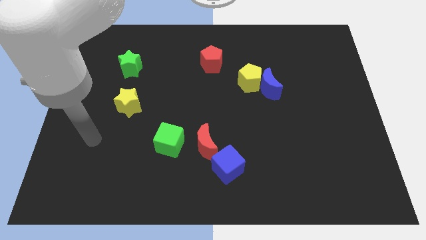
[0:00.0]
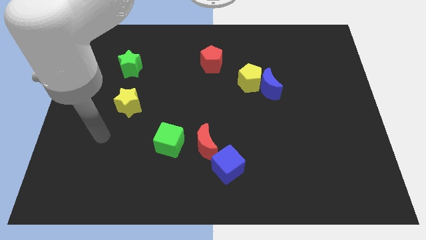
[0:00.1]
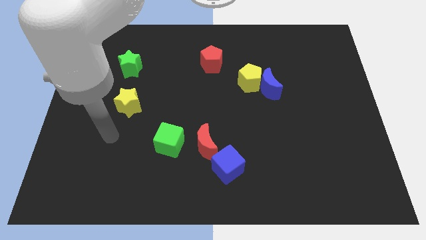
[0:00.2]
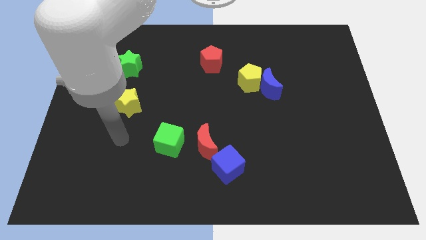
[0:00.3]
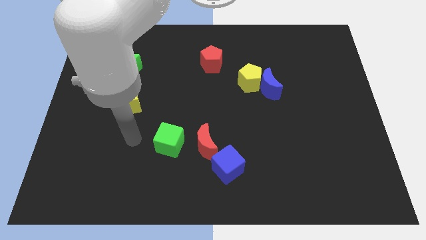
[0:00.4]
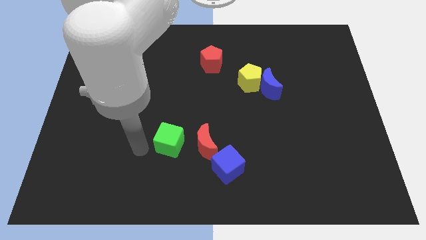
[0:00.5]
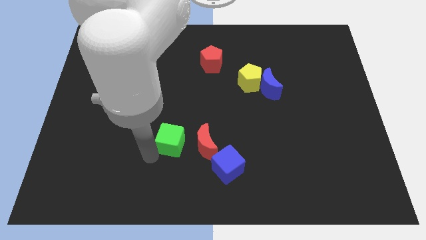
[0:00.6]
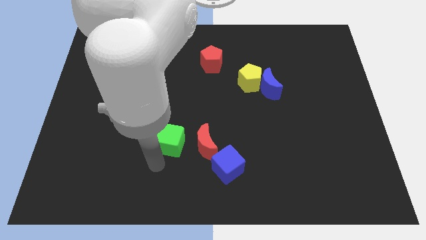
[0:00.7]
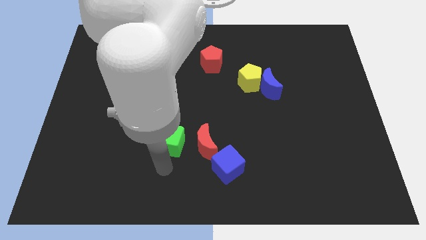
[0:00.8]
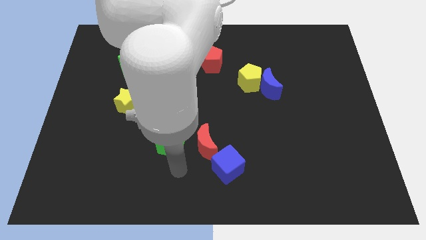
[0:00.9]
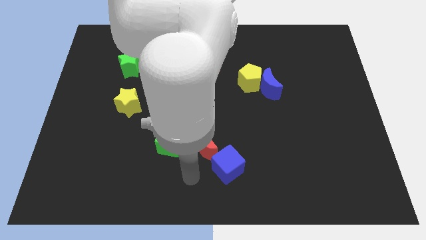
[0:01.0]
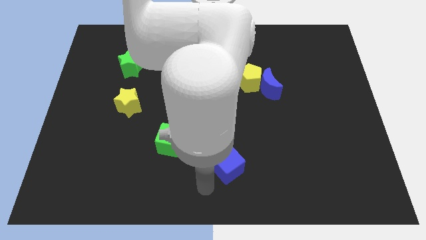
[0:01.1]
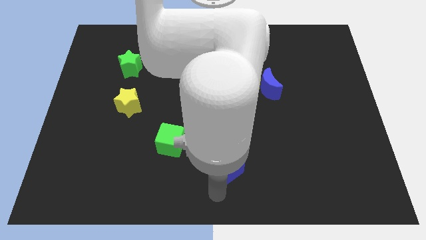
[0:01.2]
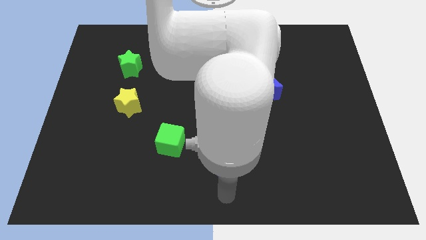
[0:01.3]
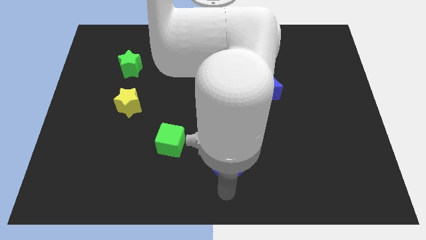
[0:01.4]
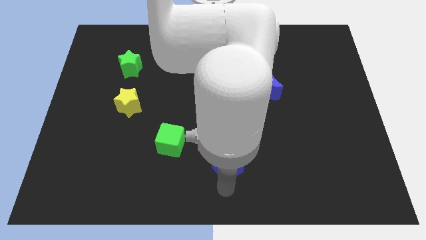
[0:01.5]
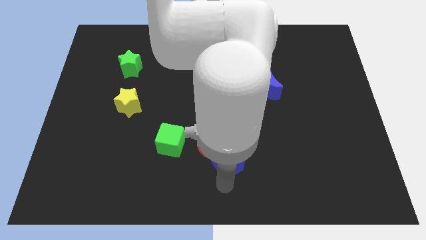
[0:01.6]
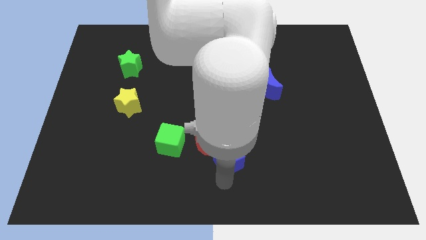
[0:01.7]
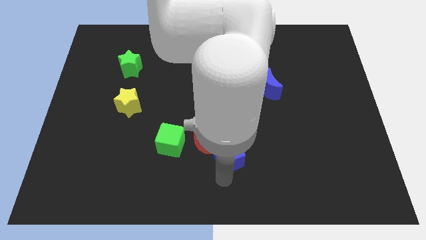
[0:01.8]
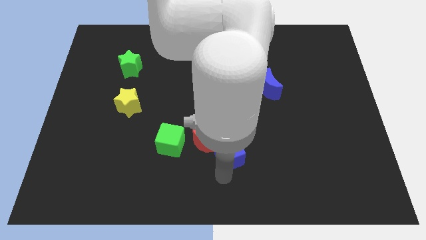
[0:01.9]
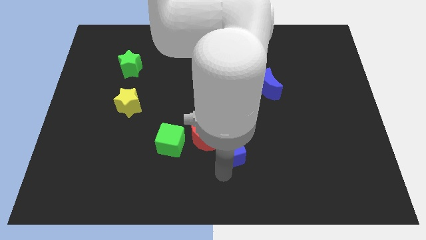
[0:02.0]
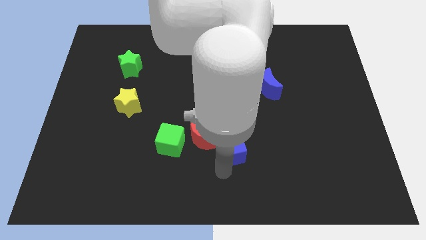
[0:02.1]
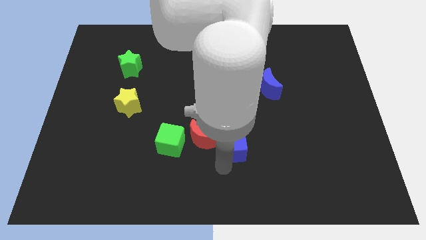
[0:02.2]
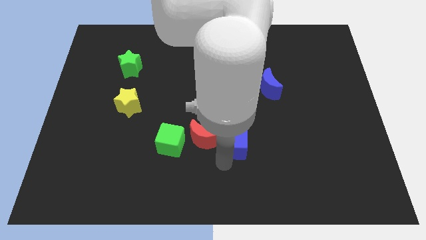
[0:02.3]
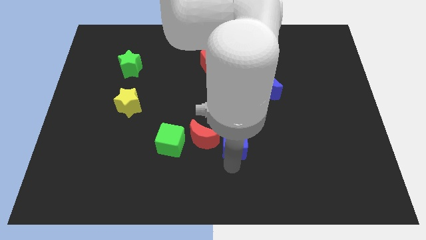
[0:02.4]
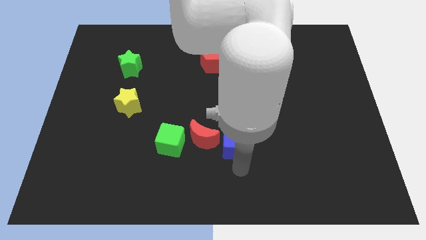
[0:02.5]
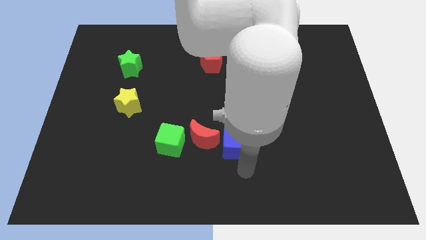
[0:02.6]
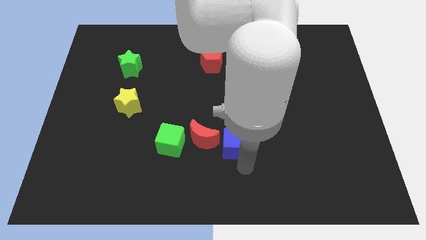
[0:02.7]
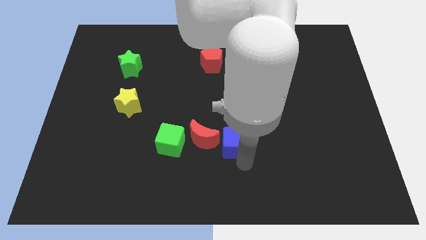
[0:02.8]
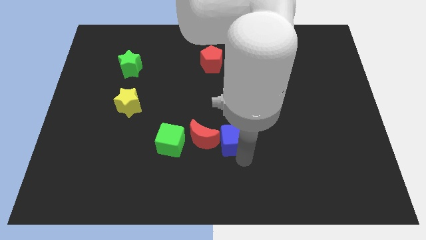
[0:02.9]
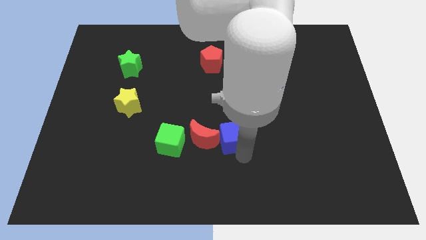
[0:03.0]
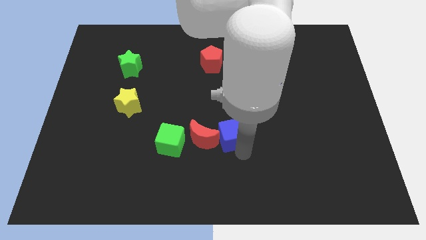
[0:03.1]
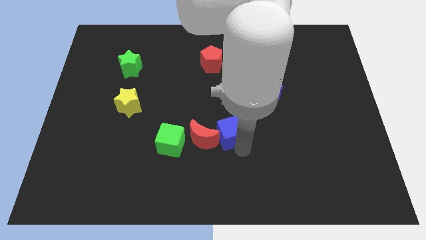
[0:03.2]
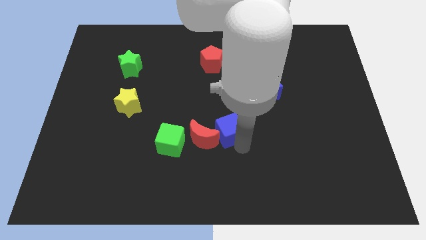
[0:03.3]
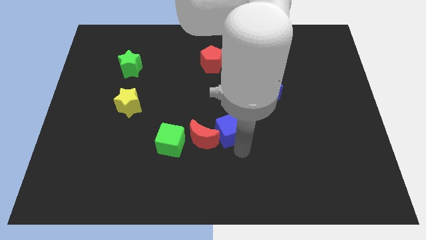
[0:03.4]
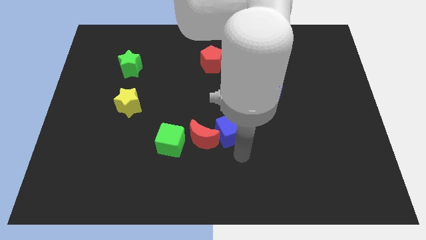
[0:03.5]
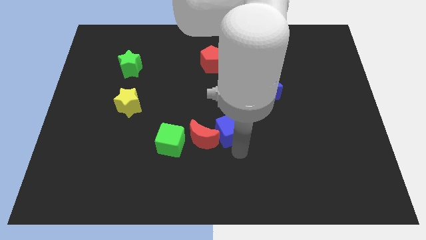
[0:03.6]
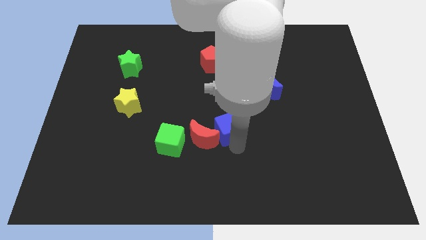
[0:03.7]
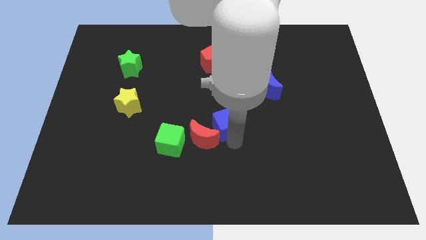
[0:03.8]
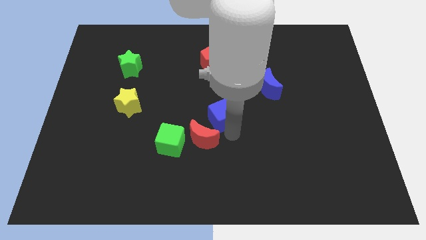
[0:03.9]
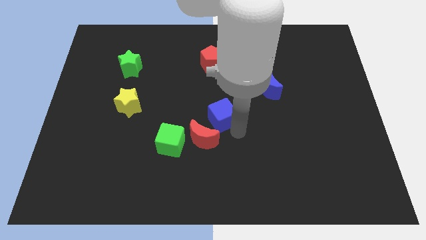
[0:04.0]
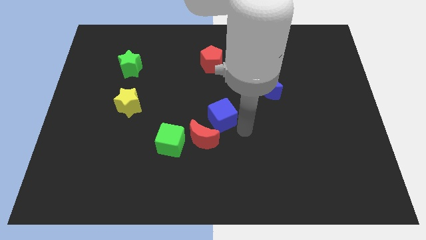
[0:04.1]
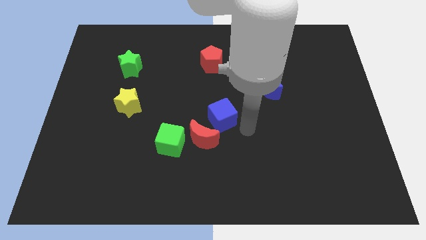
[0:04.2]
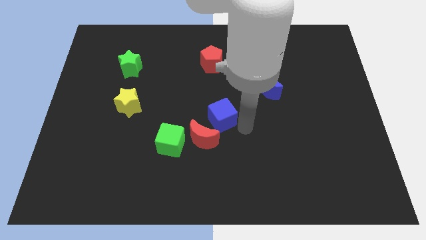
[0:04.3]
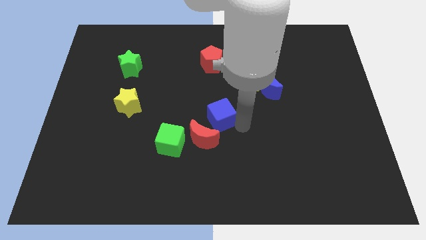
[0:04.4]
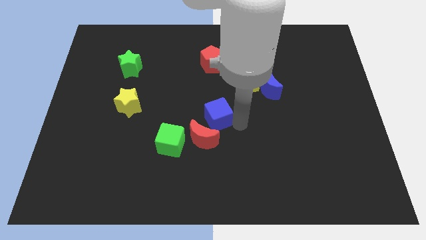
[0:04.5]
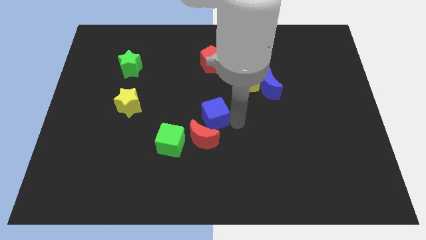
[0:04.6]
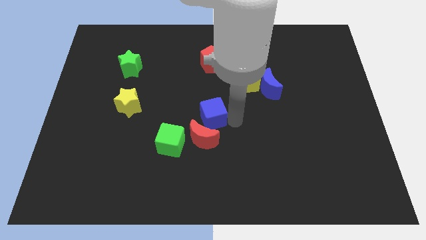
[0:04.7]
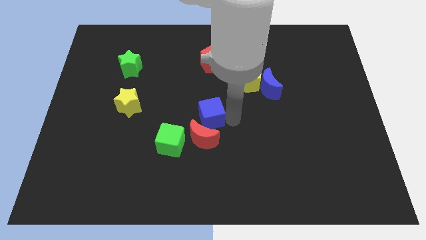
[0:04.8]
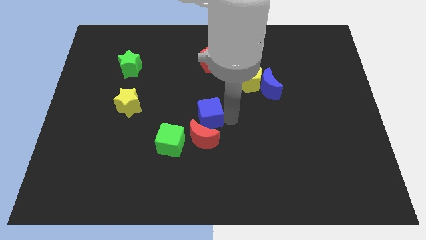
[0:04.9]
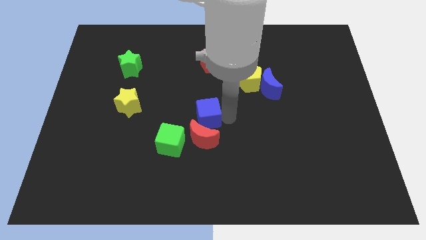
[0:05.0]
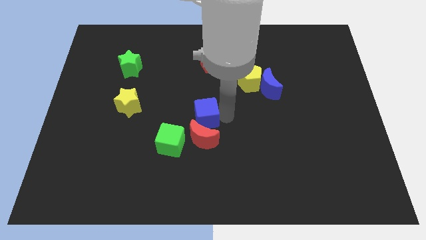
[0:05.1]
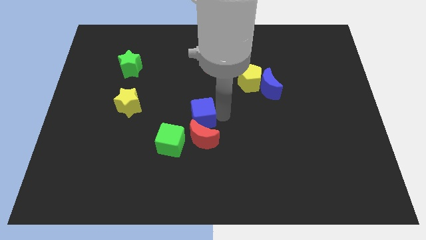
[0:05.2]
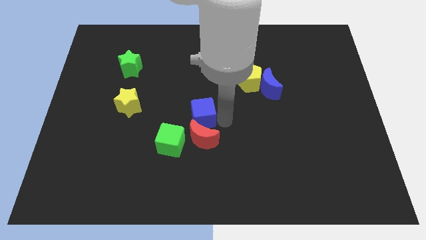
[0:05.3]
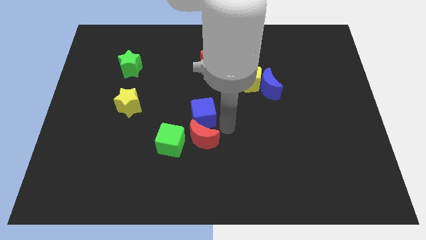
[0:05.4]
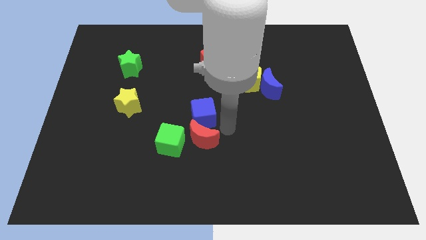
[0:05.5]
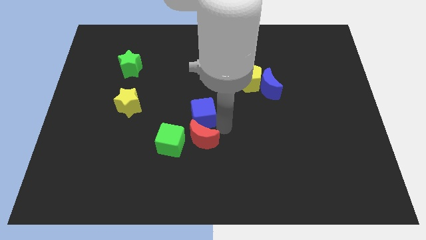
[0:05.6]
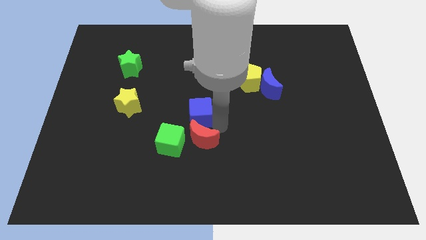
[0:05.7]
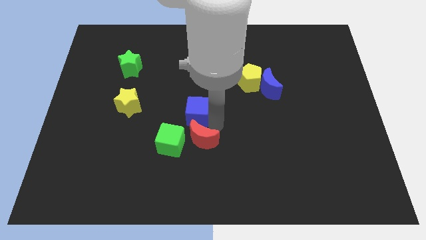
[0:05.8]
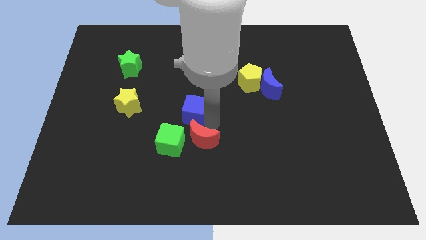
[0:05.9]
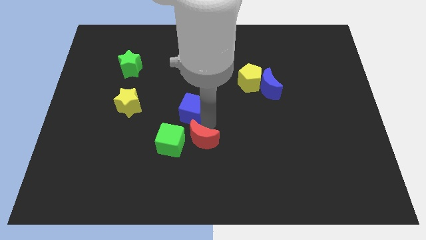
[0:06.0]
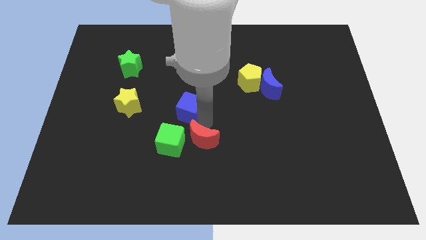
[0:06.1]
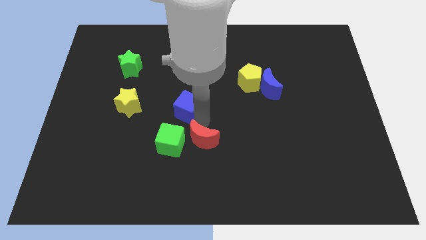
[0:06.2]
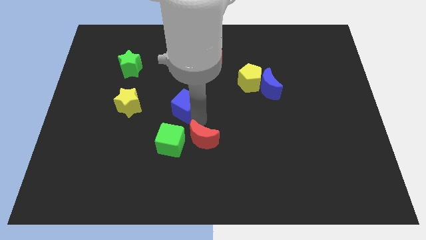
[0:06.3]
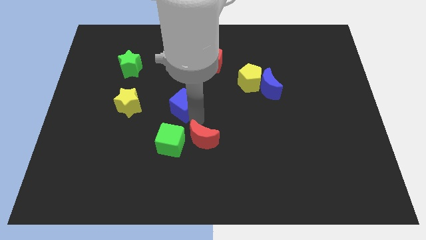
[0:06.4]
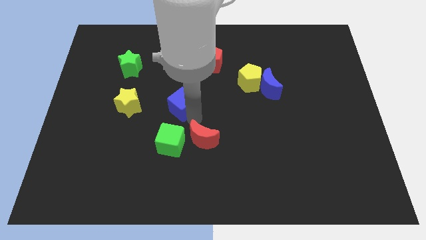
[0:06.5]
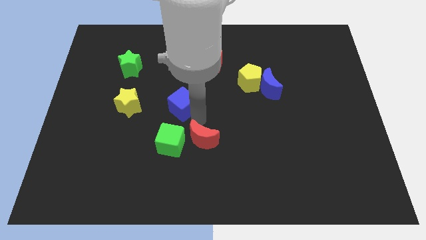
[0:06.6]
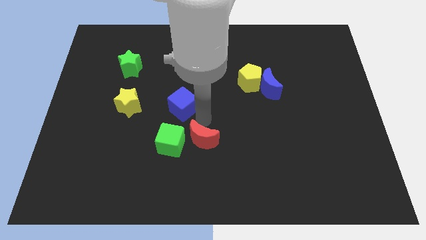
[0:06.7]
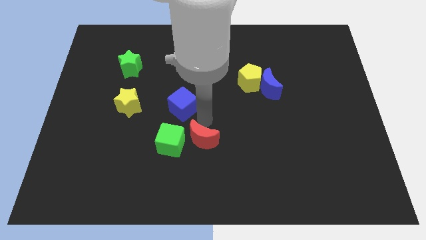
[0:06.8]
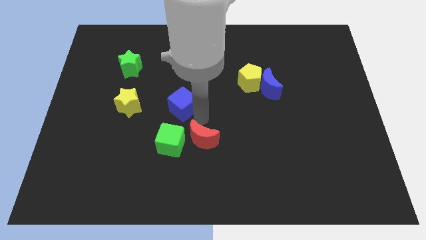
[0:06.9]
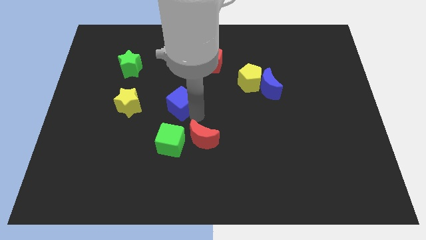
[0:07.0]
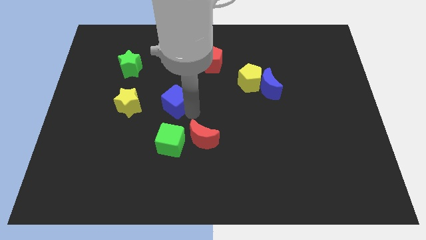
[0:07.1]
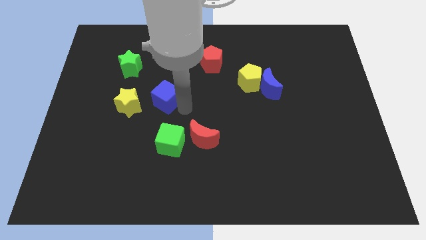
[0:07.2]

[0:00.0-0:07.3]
push the blue cube upwards and then left

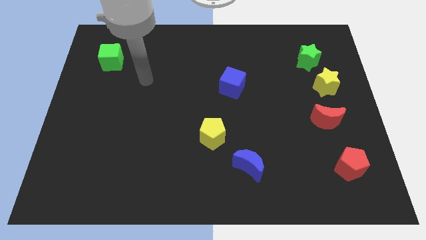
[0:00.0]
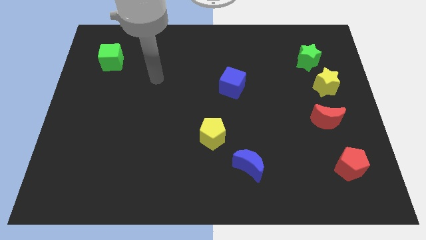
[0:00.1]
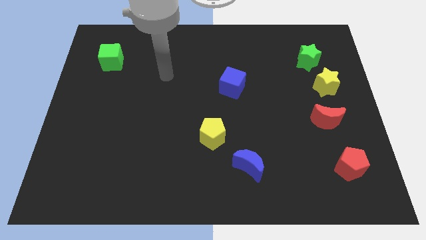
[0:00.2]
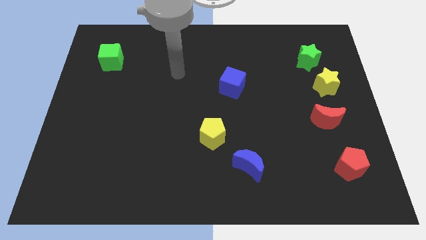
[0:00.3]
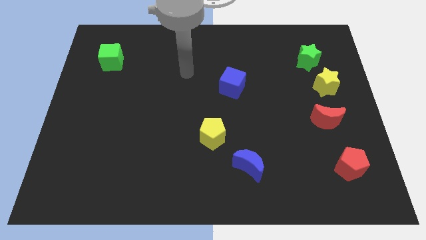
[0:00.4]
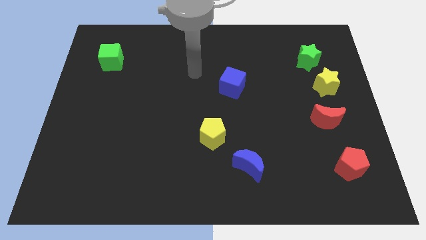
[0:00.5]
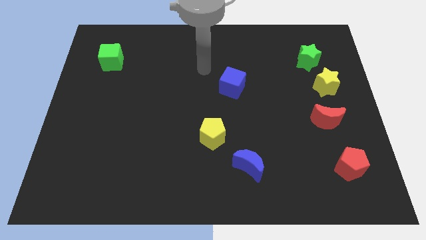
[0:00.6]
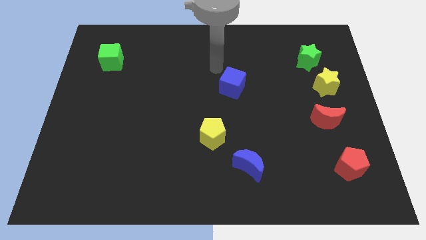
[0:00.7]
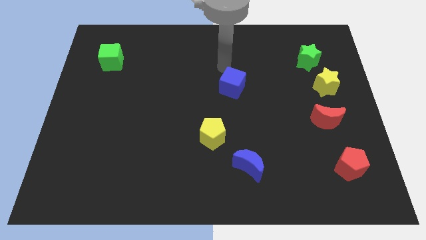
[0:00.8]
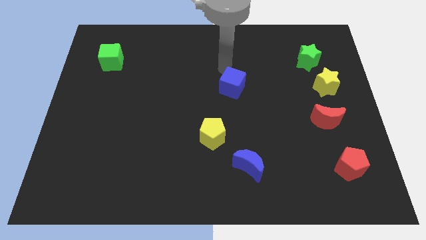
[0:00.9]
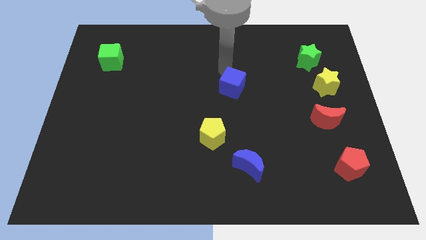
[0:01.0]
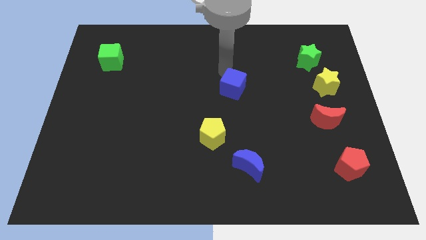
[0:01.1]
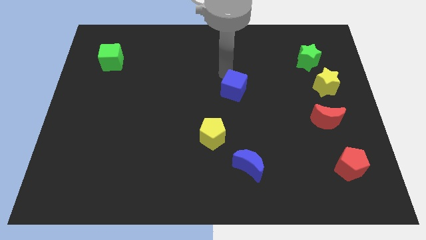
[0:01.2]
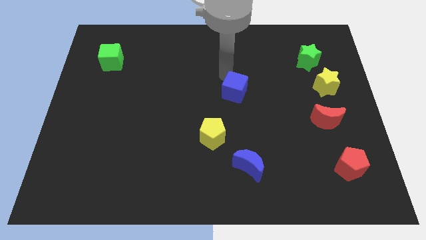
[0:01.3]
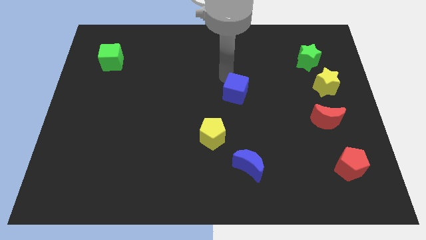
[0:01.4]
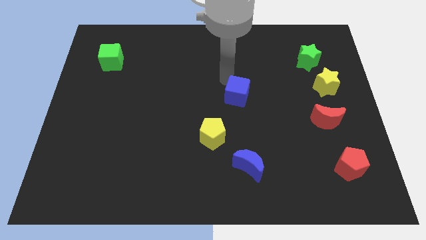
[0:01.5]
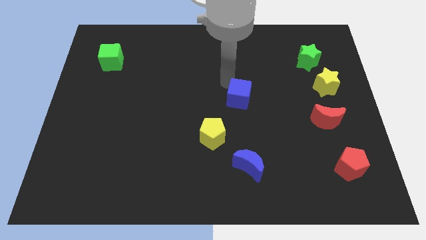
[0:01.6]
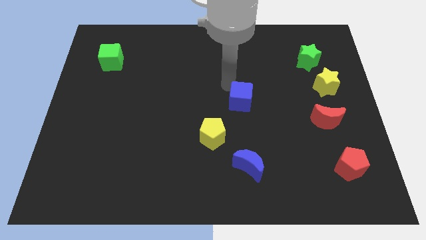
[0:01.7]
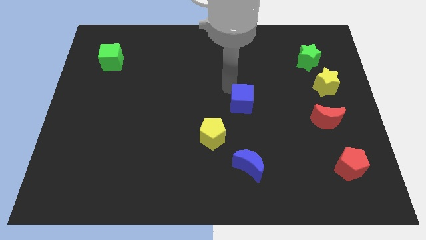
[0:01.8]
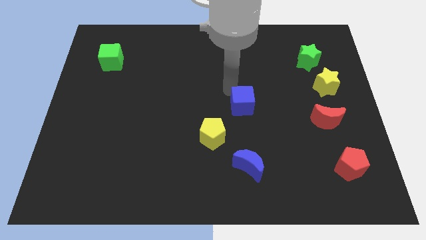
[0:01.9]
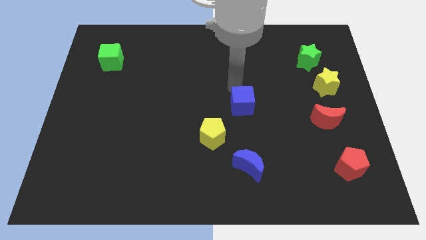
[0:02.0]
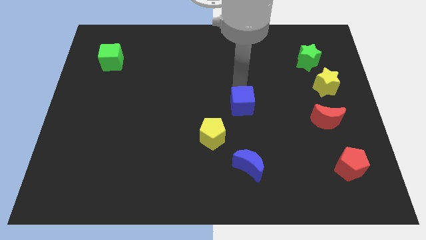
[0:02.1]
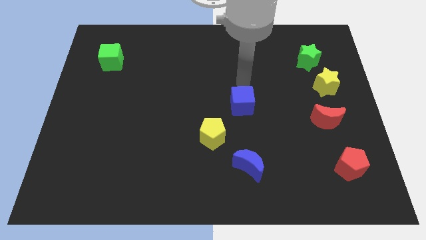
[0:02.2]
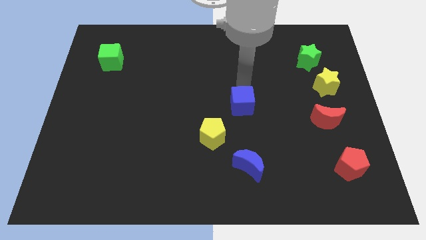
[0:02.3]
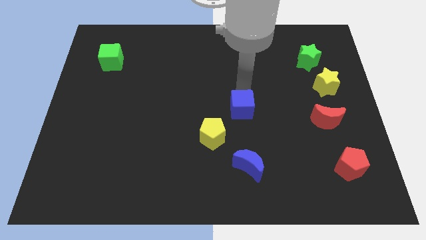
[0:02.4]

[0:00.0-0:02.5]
move the blue cube down a bit
